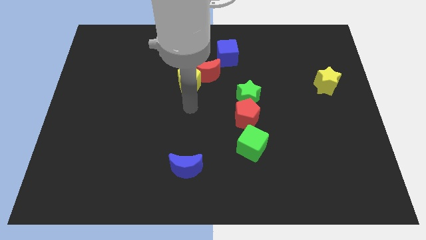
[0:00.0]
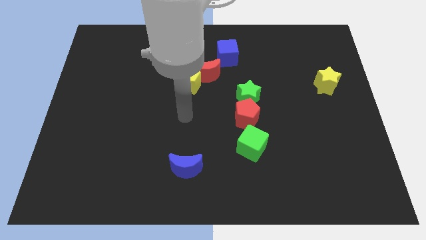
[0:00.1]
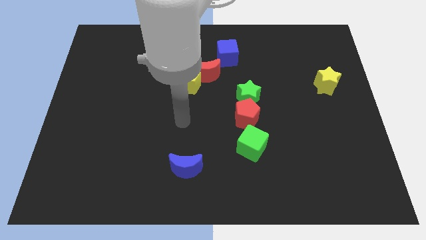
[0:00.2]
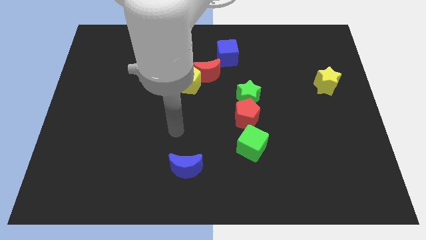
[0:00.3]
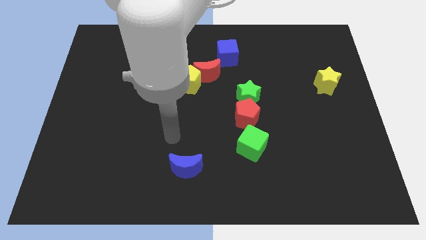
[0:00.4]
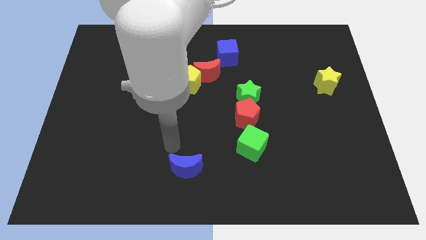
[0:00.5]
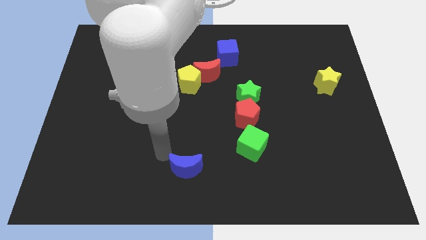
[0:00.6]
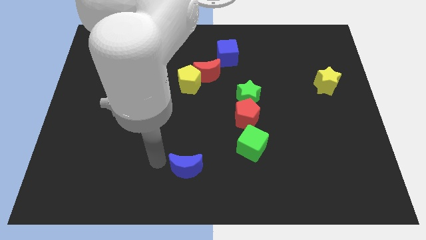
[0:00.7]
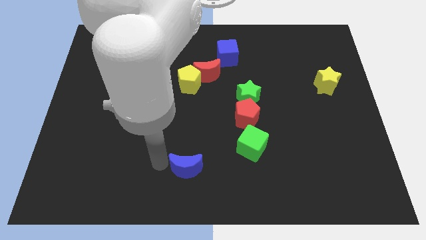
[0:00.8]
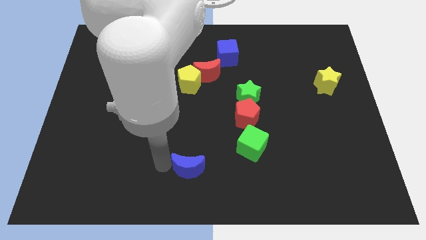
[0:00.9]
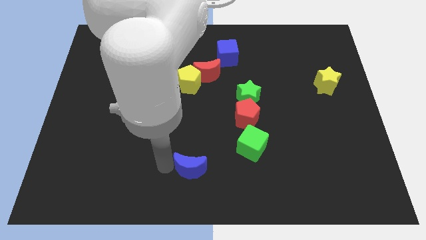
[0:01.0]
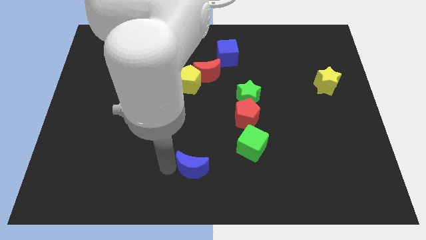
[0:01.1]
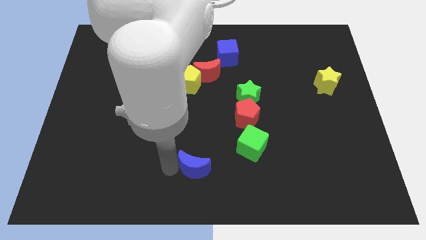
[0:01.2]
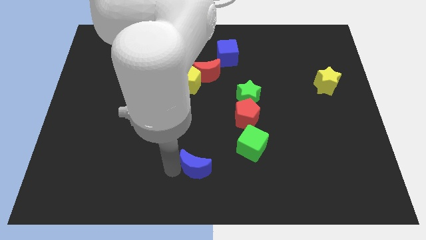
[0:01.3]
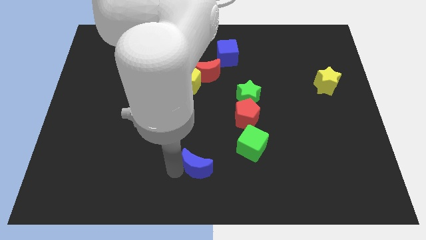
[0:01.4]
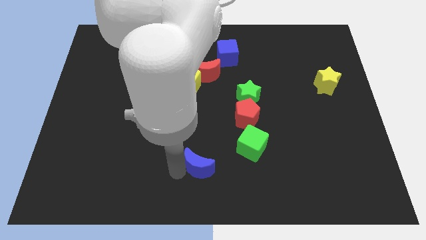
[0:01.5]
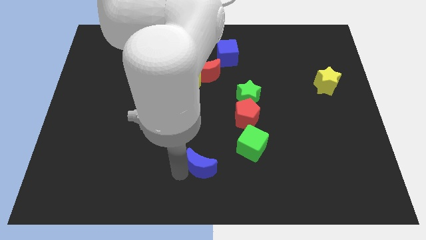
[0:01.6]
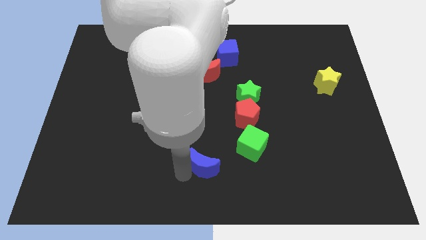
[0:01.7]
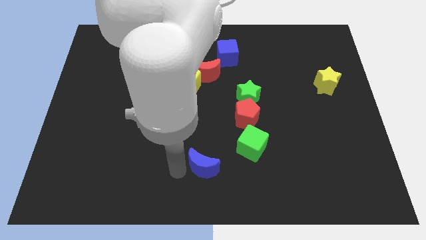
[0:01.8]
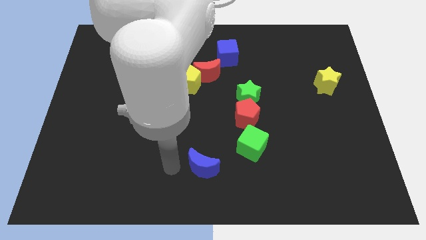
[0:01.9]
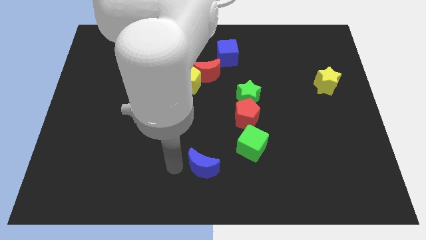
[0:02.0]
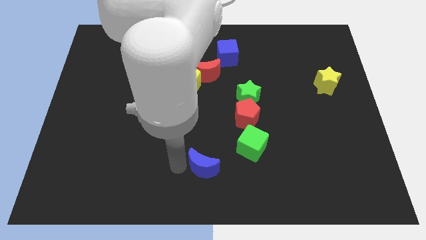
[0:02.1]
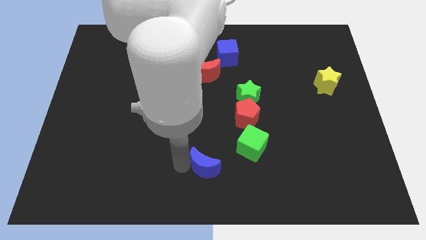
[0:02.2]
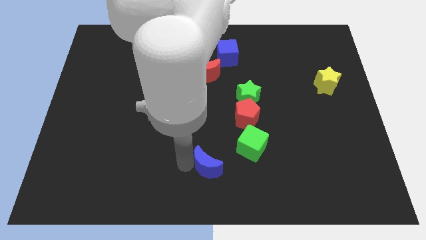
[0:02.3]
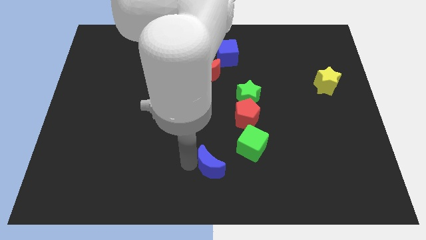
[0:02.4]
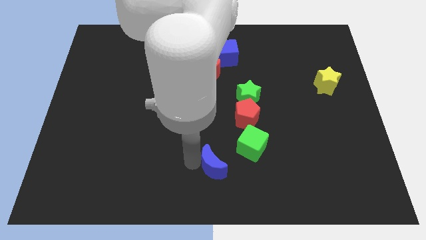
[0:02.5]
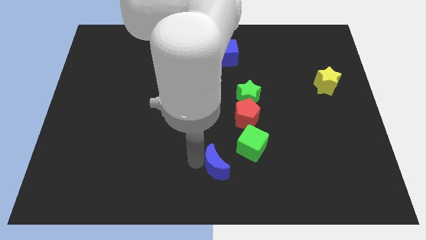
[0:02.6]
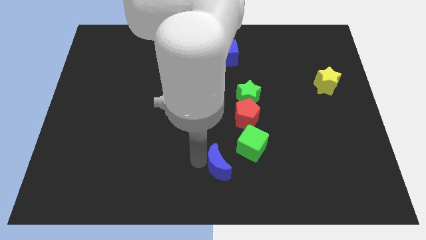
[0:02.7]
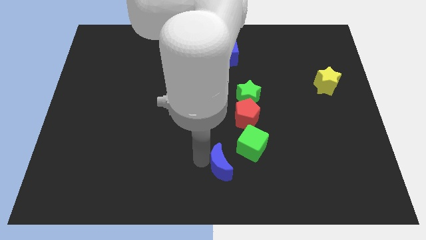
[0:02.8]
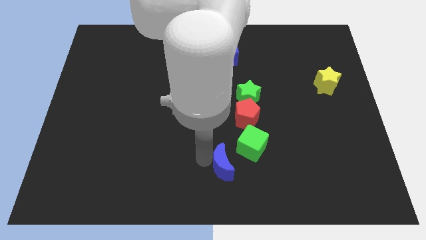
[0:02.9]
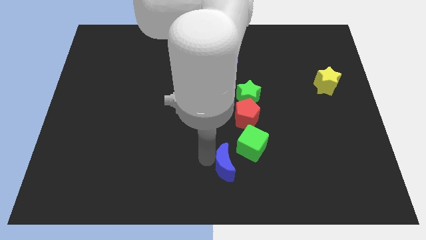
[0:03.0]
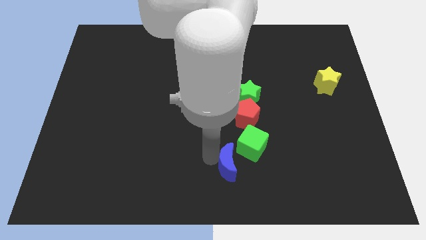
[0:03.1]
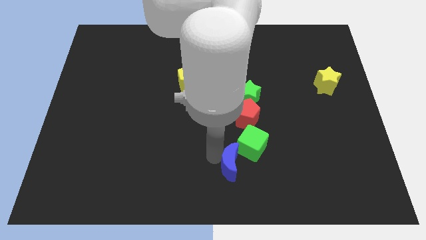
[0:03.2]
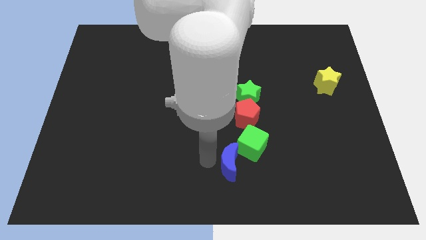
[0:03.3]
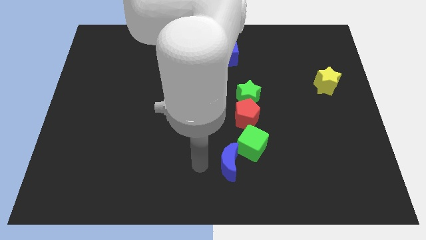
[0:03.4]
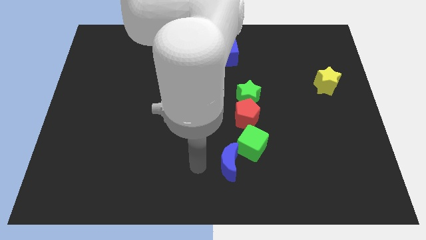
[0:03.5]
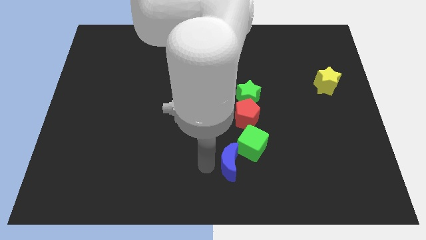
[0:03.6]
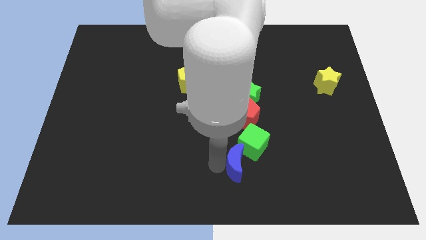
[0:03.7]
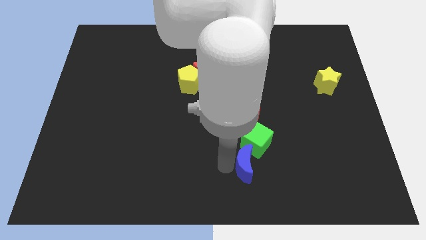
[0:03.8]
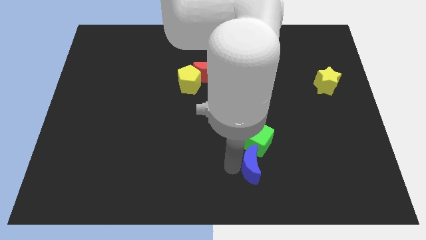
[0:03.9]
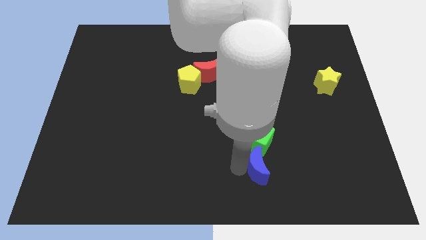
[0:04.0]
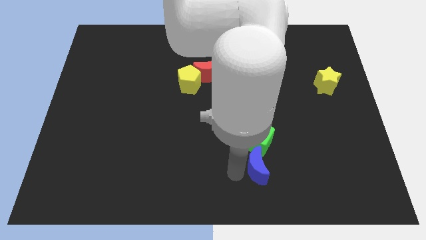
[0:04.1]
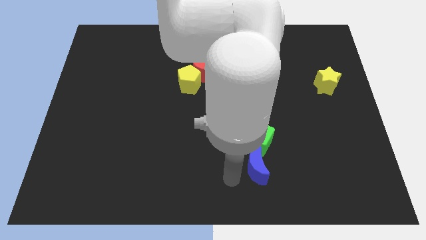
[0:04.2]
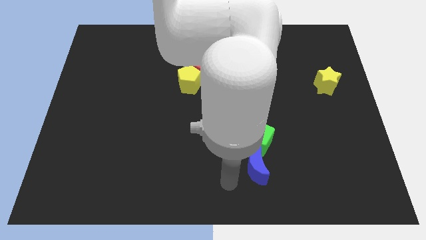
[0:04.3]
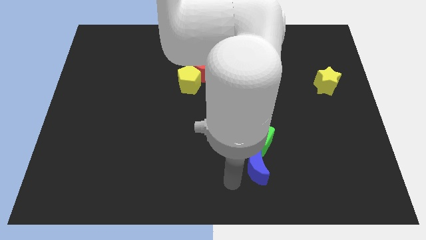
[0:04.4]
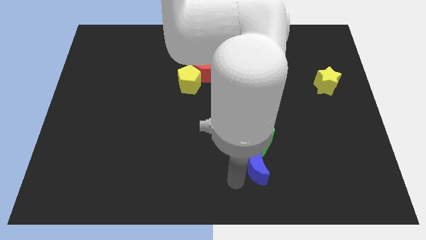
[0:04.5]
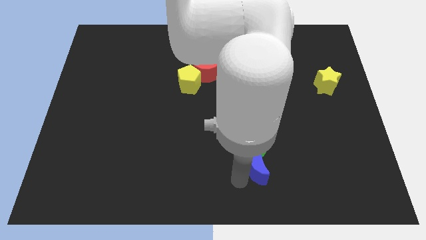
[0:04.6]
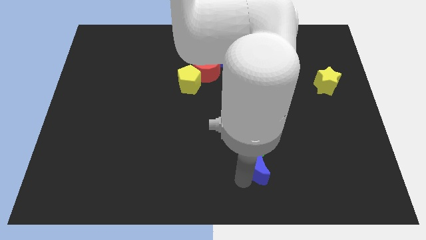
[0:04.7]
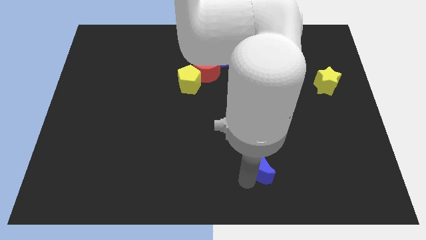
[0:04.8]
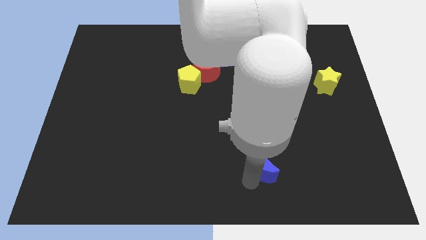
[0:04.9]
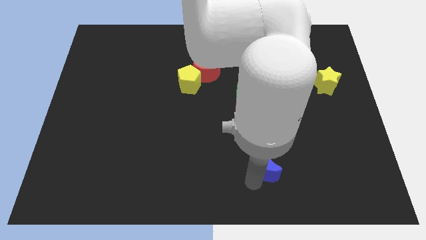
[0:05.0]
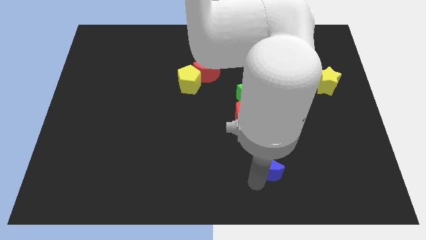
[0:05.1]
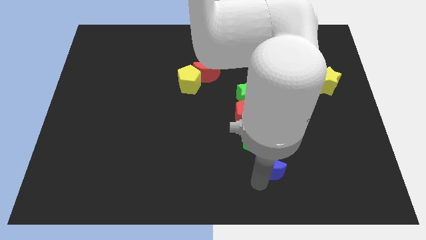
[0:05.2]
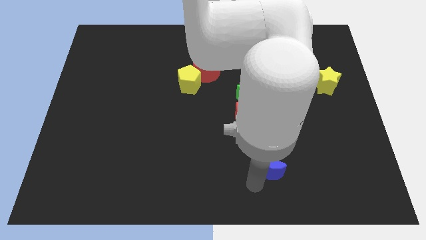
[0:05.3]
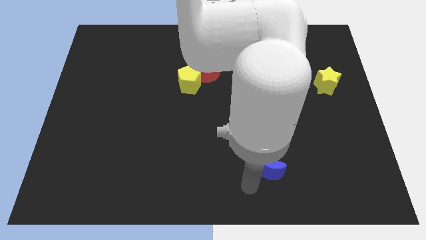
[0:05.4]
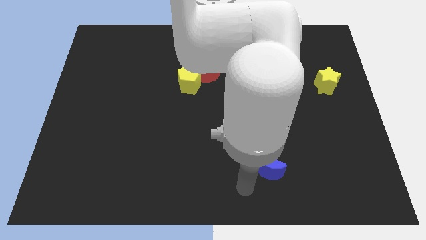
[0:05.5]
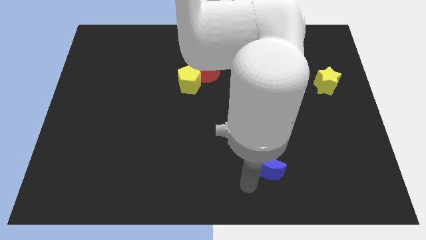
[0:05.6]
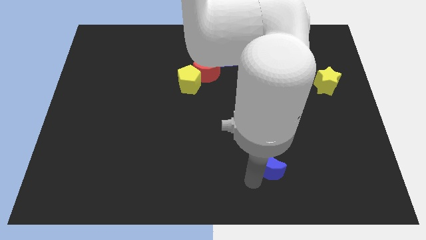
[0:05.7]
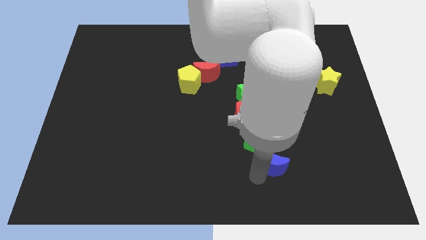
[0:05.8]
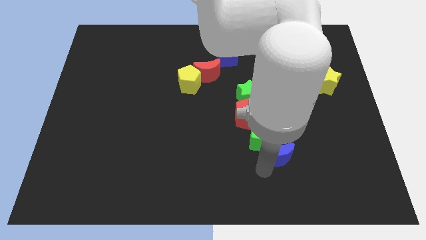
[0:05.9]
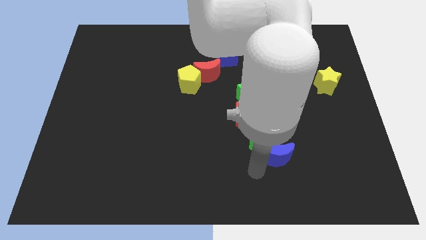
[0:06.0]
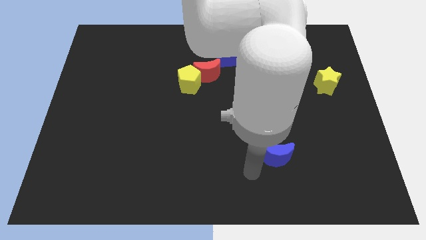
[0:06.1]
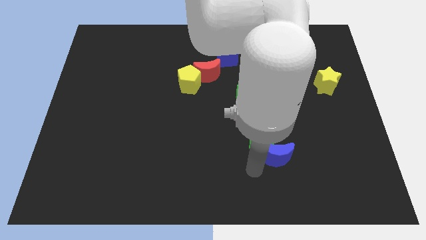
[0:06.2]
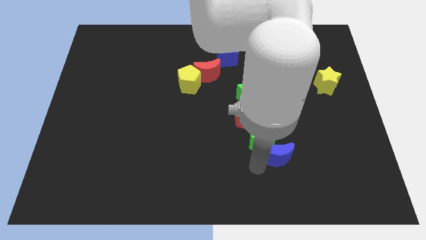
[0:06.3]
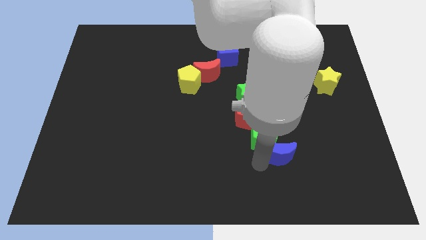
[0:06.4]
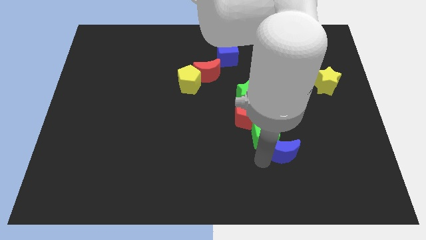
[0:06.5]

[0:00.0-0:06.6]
push the blue moon to the right side of the green cube

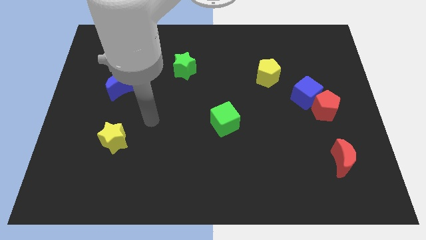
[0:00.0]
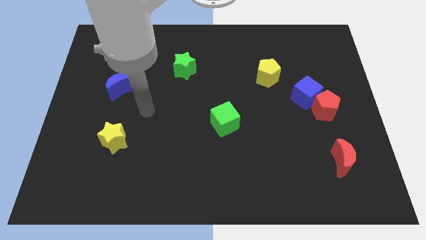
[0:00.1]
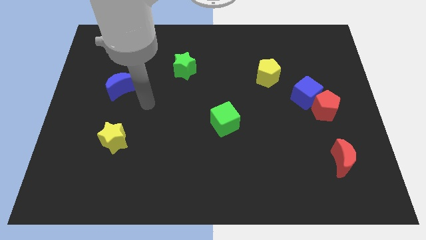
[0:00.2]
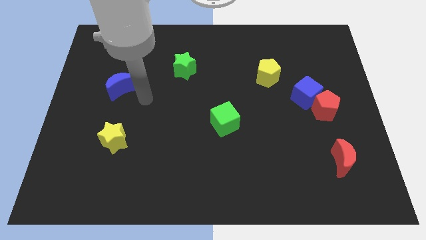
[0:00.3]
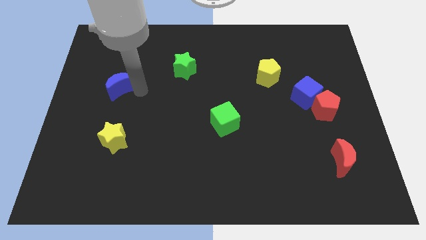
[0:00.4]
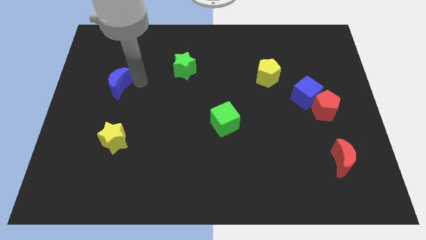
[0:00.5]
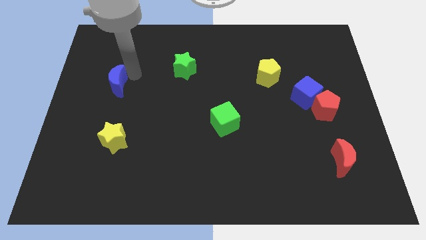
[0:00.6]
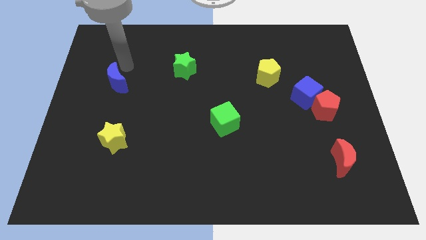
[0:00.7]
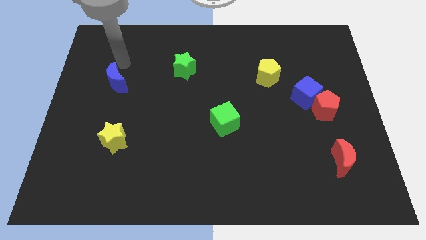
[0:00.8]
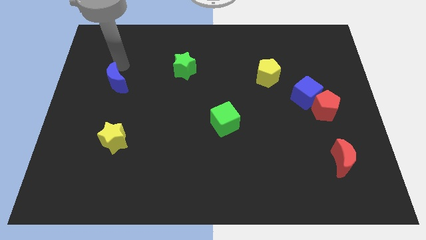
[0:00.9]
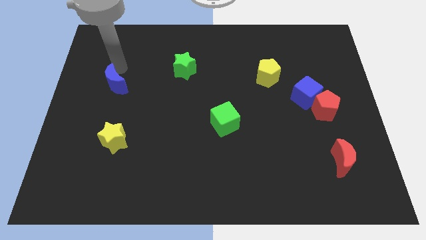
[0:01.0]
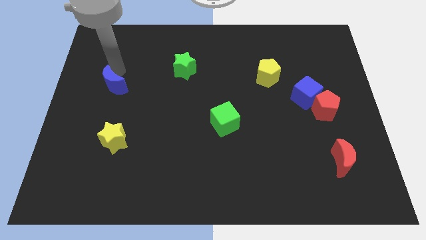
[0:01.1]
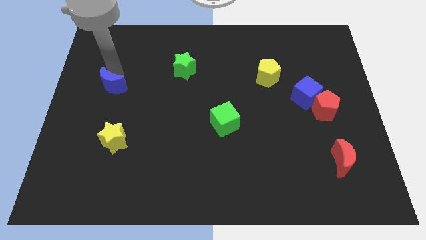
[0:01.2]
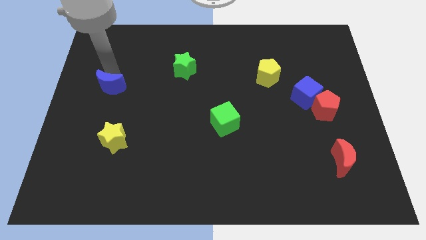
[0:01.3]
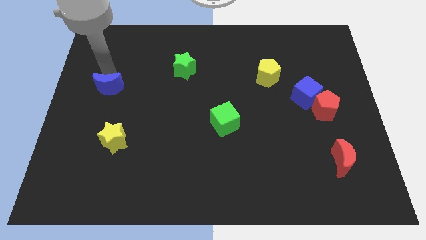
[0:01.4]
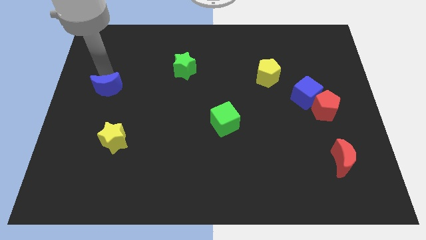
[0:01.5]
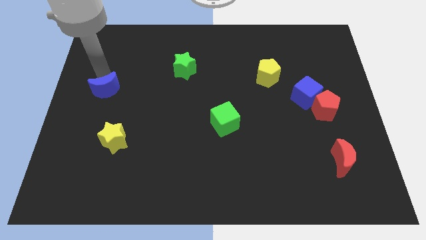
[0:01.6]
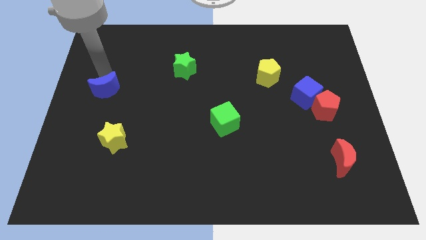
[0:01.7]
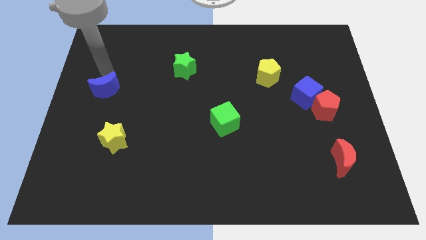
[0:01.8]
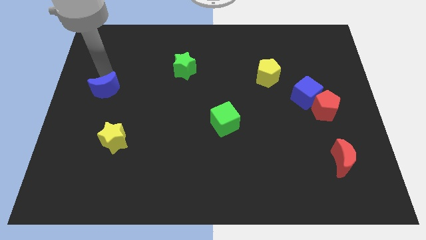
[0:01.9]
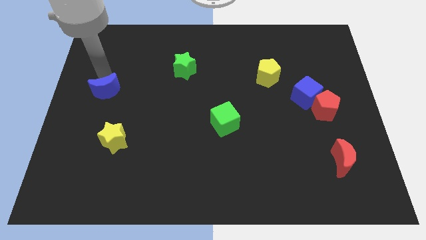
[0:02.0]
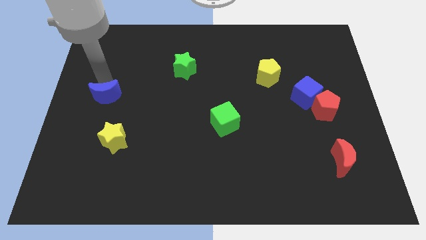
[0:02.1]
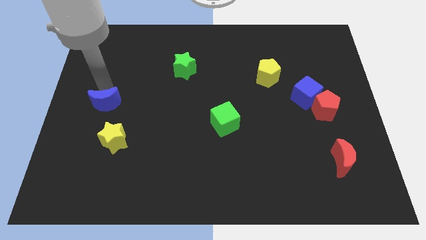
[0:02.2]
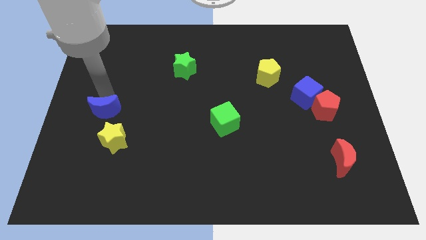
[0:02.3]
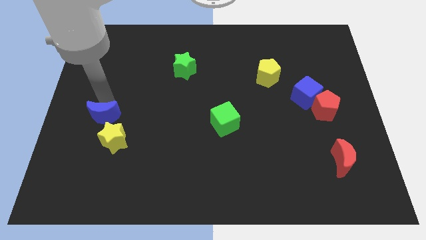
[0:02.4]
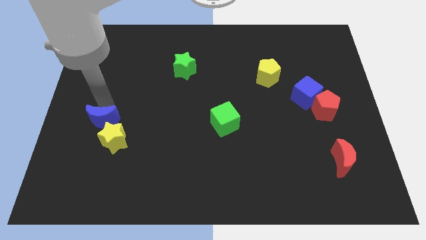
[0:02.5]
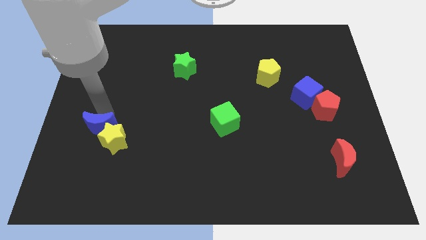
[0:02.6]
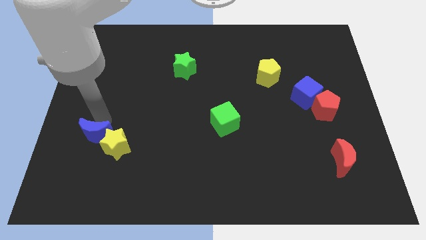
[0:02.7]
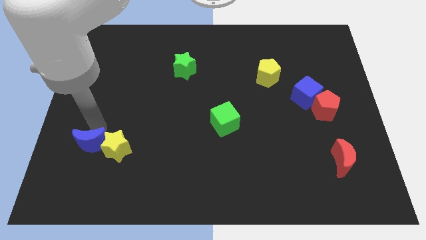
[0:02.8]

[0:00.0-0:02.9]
move the blue moon to the bottom left of the yellow star
